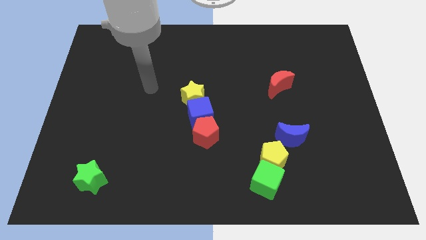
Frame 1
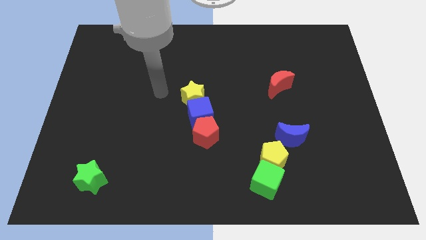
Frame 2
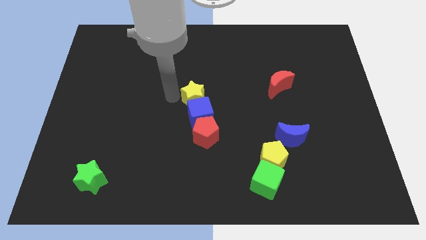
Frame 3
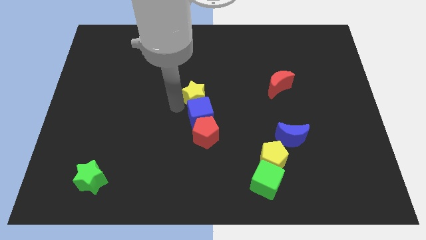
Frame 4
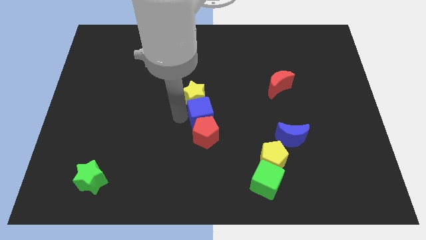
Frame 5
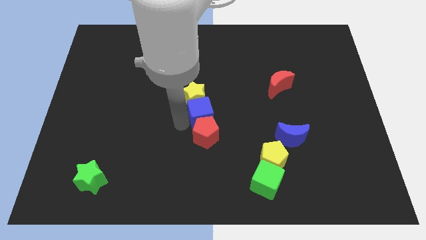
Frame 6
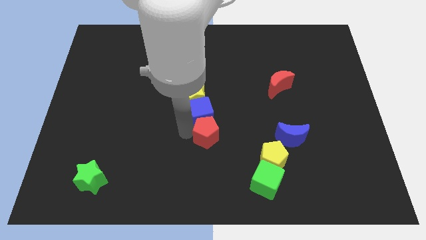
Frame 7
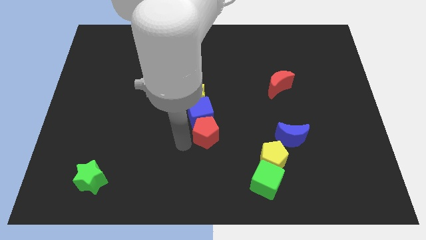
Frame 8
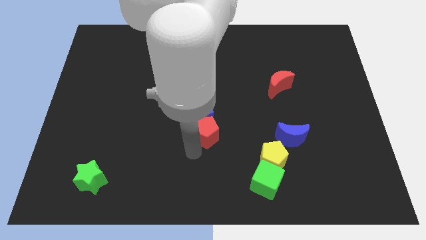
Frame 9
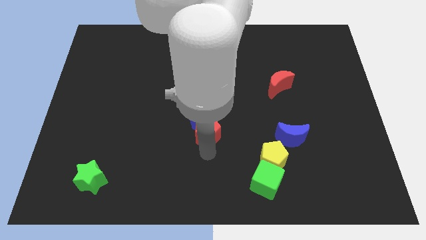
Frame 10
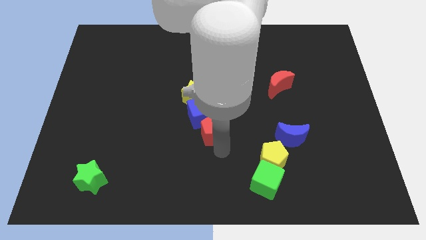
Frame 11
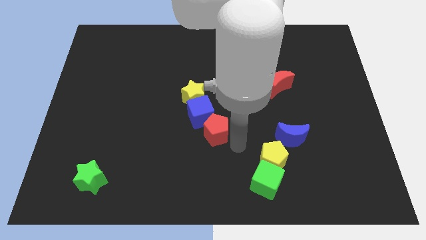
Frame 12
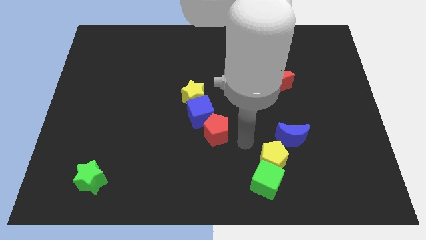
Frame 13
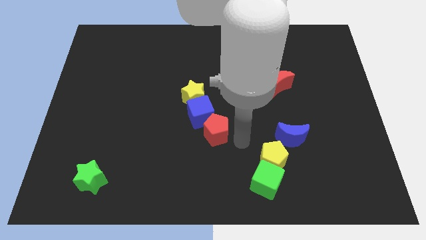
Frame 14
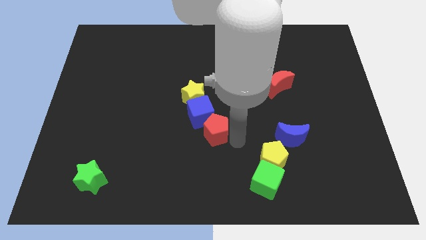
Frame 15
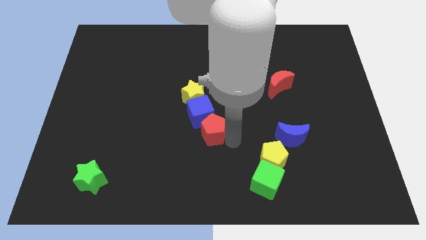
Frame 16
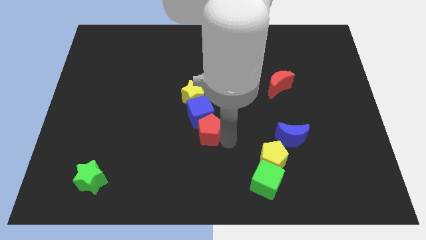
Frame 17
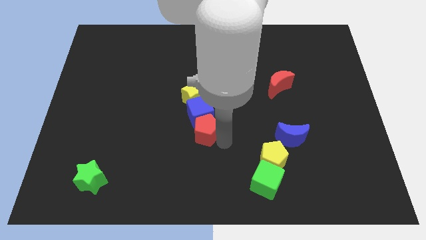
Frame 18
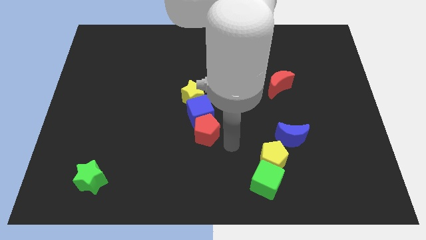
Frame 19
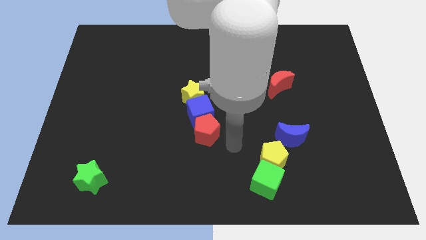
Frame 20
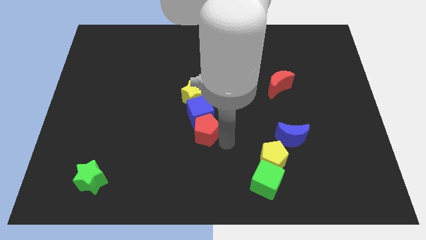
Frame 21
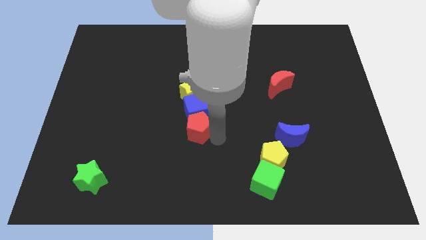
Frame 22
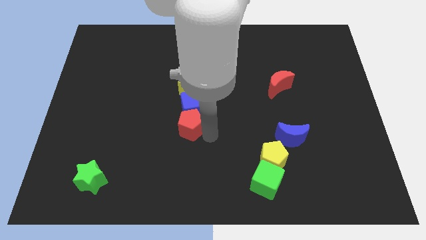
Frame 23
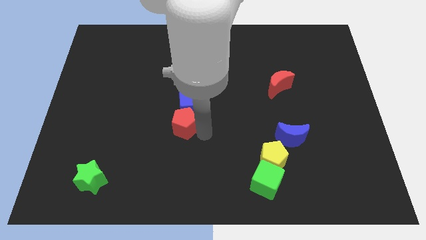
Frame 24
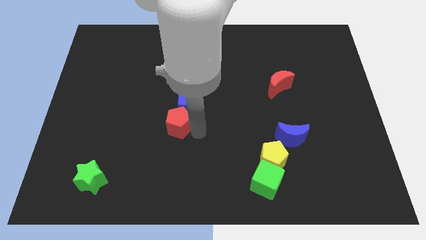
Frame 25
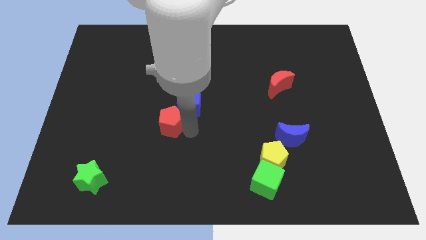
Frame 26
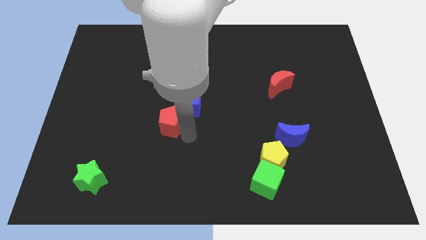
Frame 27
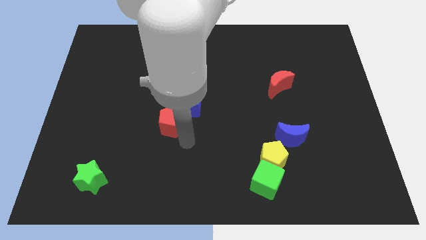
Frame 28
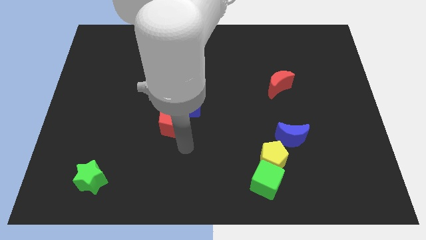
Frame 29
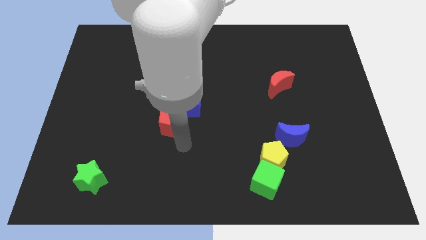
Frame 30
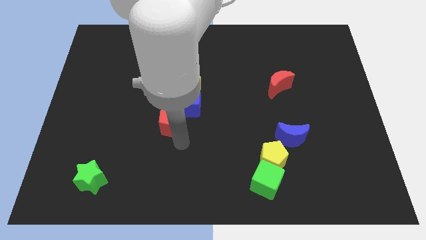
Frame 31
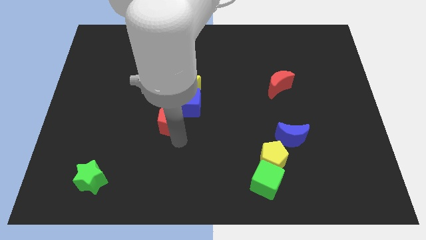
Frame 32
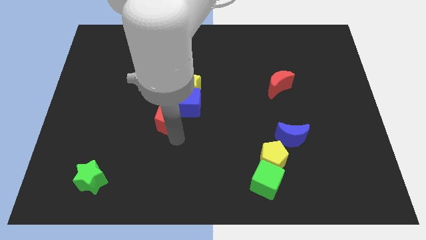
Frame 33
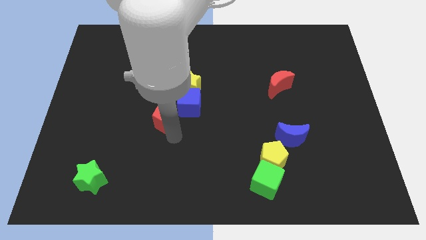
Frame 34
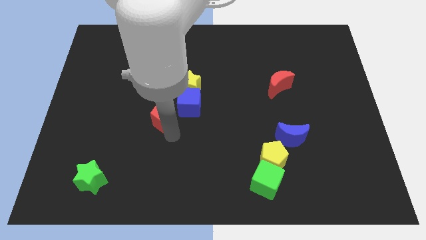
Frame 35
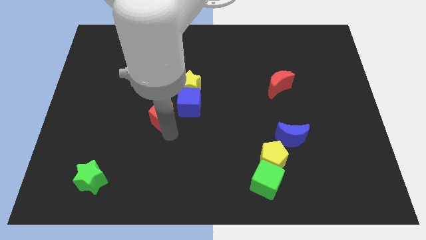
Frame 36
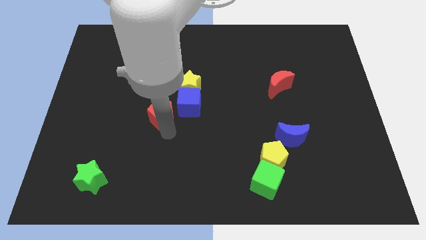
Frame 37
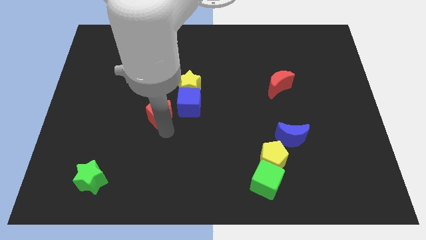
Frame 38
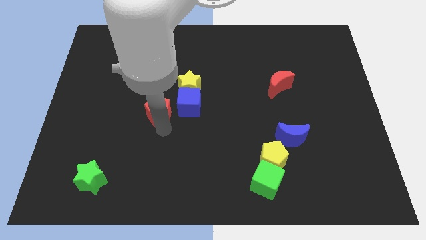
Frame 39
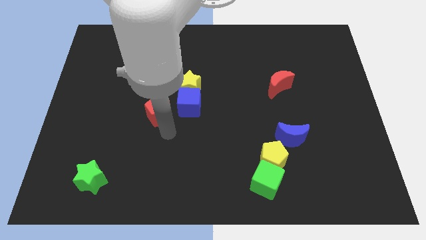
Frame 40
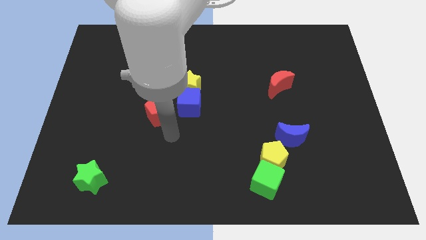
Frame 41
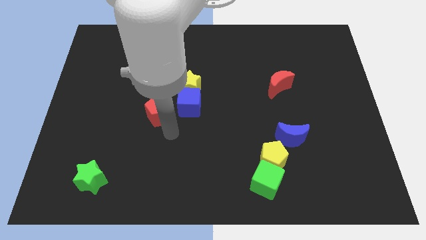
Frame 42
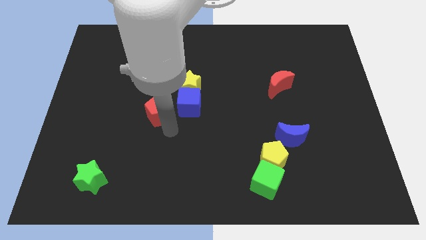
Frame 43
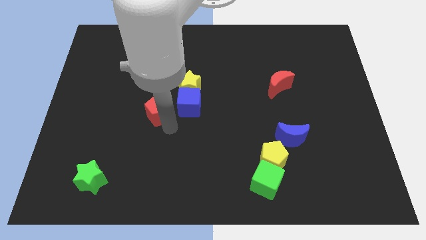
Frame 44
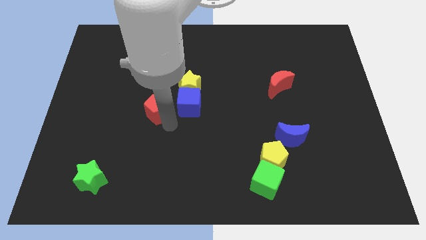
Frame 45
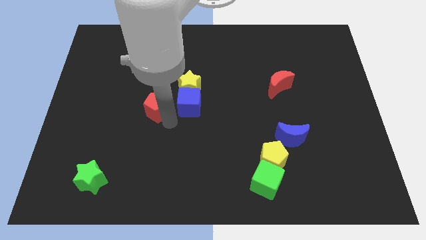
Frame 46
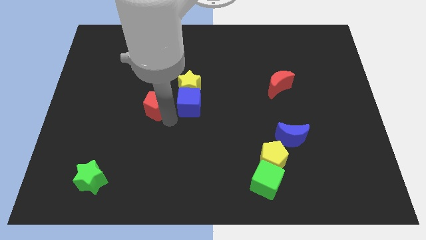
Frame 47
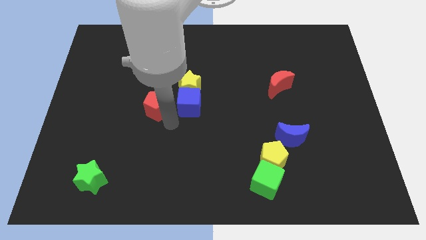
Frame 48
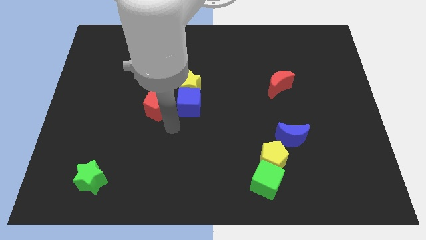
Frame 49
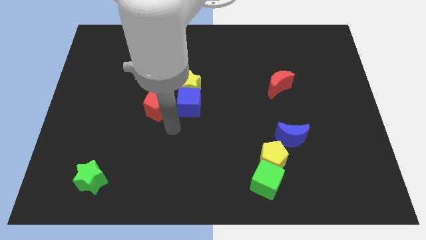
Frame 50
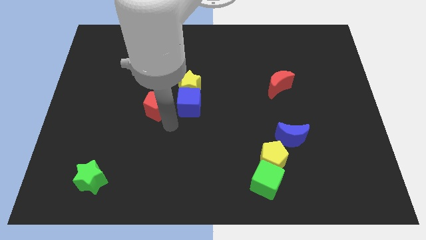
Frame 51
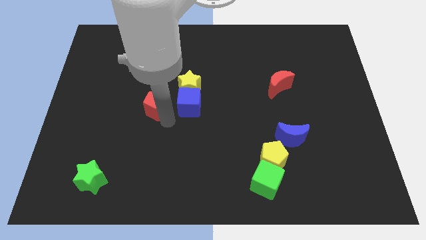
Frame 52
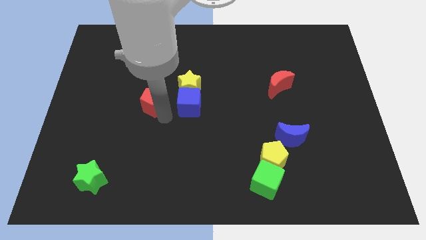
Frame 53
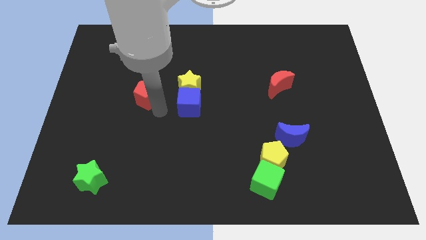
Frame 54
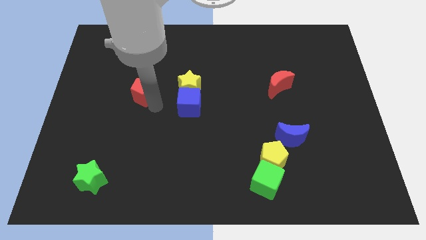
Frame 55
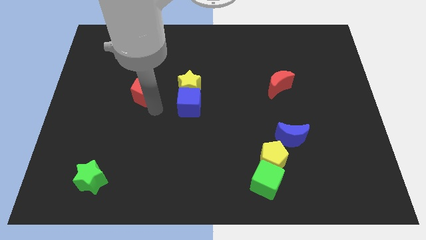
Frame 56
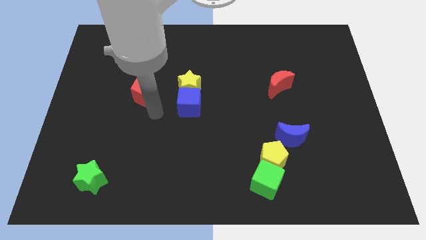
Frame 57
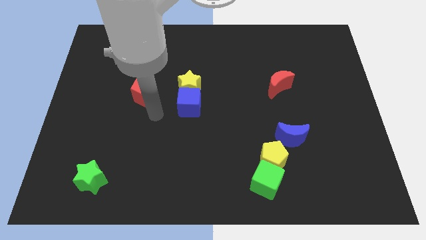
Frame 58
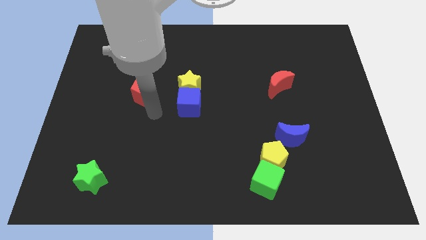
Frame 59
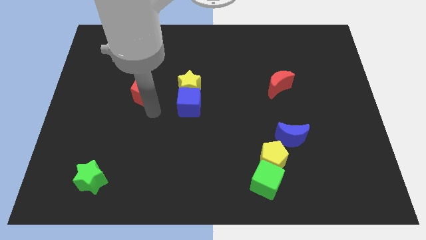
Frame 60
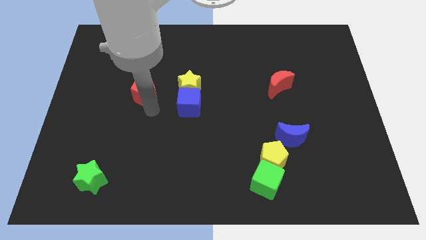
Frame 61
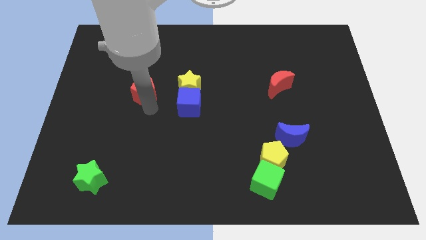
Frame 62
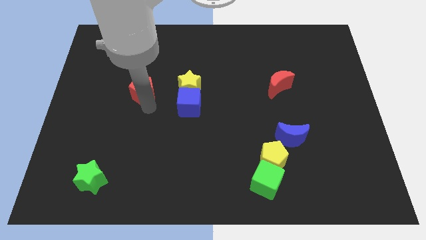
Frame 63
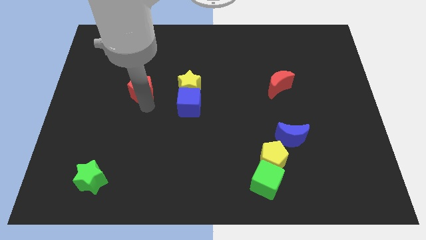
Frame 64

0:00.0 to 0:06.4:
move the red pentagon upwards and to the left diagonally

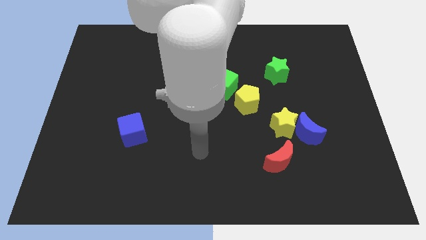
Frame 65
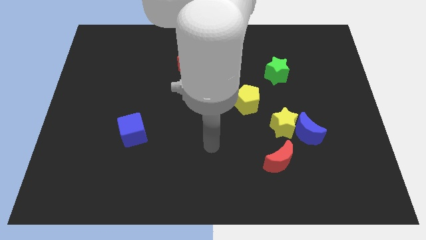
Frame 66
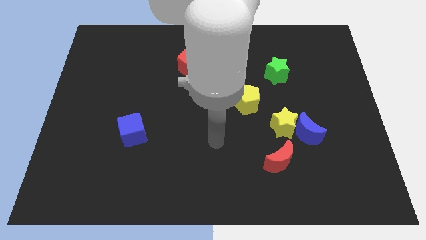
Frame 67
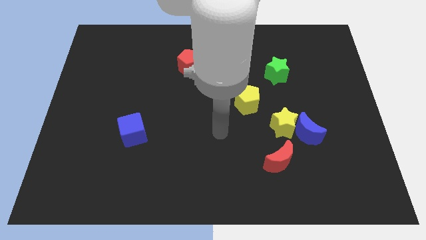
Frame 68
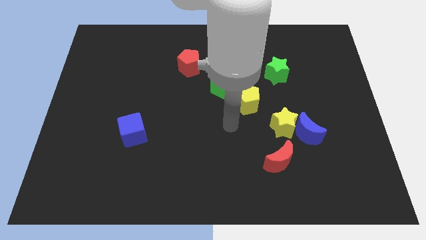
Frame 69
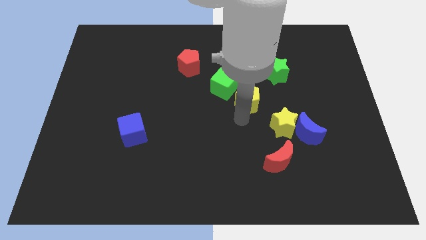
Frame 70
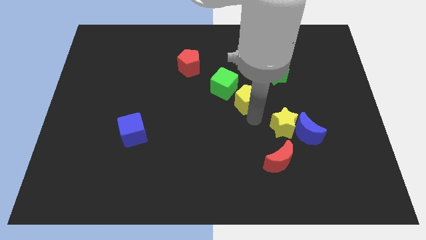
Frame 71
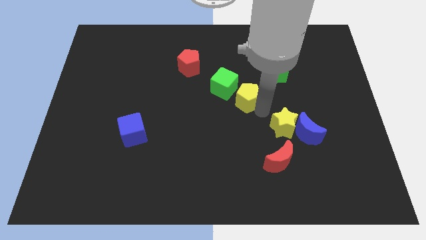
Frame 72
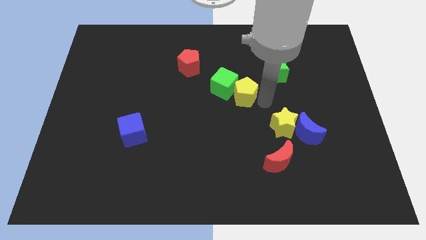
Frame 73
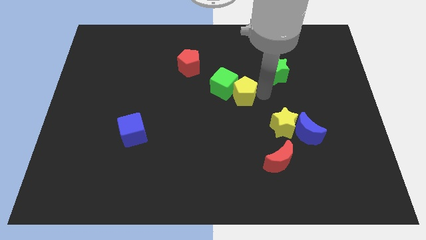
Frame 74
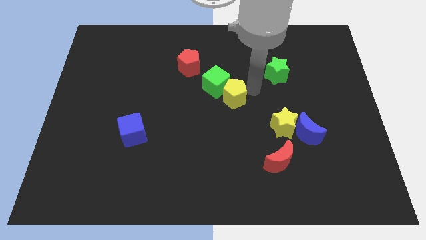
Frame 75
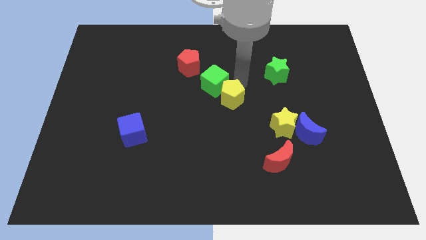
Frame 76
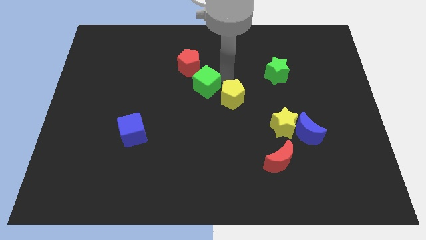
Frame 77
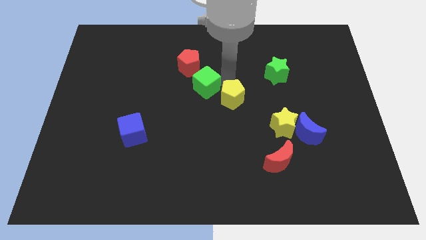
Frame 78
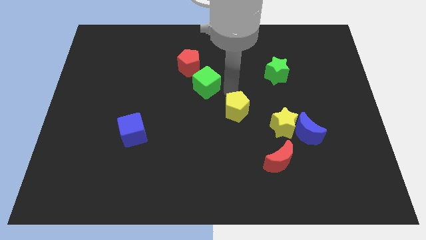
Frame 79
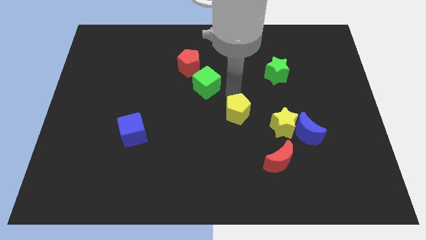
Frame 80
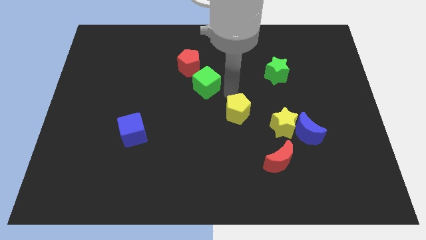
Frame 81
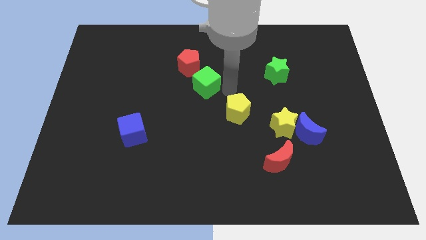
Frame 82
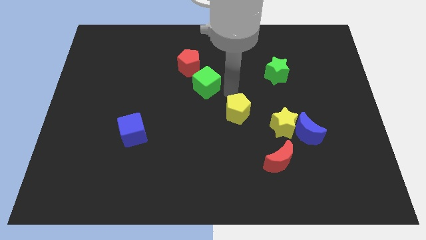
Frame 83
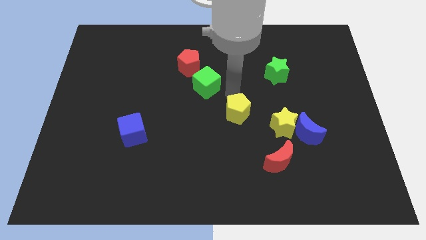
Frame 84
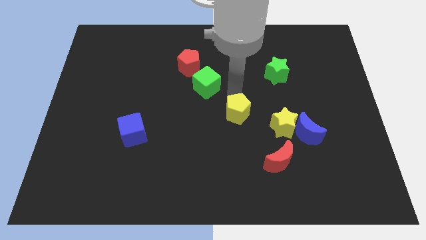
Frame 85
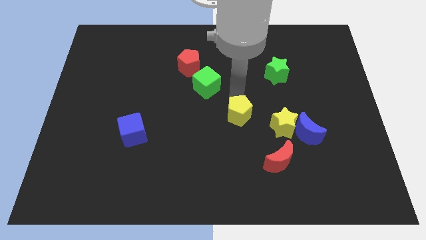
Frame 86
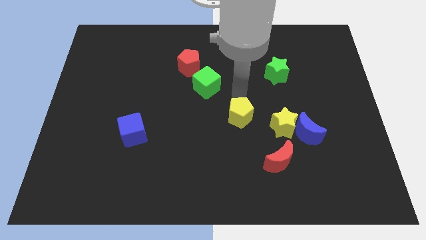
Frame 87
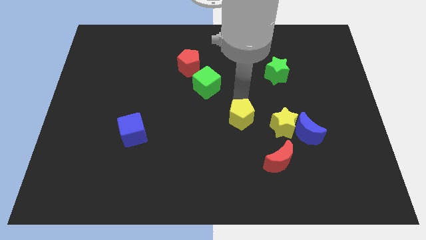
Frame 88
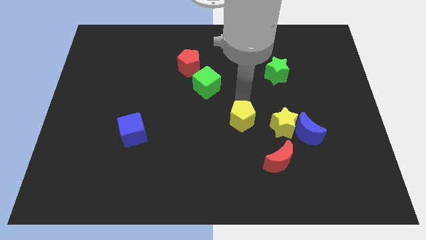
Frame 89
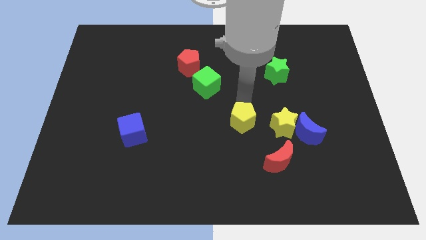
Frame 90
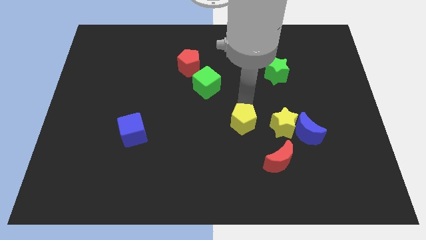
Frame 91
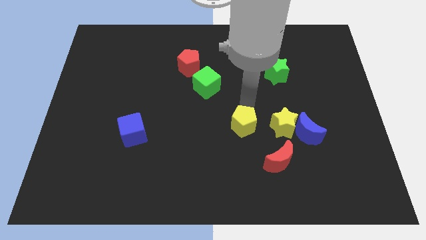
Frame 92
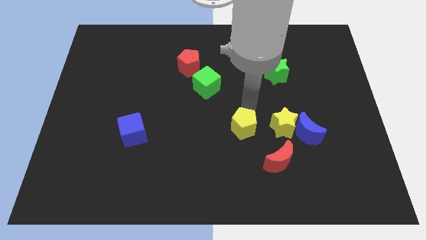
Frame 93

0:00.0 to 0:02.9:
push the yellow pentagon slightly downwards
